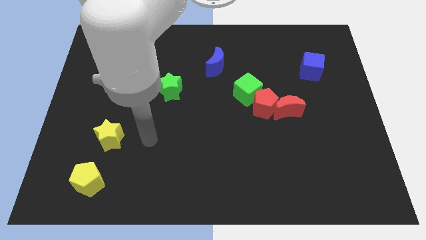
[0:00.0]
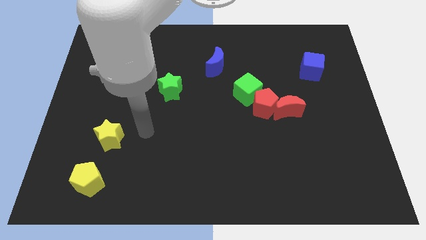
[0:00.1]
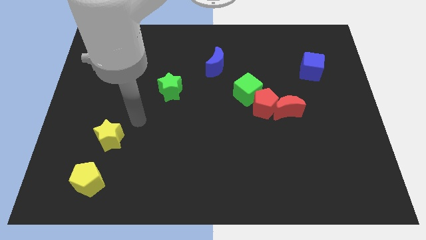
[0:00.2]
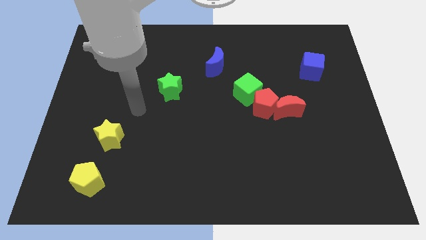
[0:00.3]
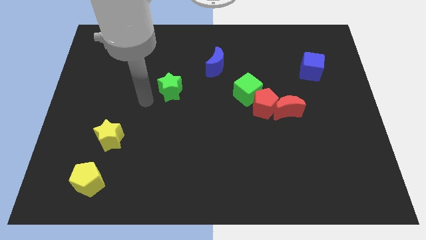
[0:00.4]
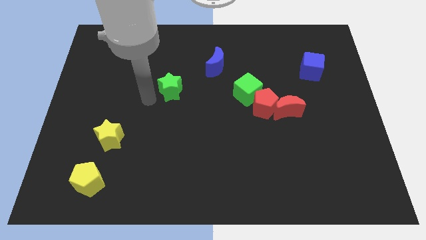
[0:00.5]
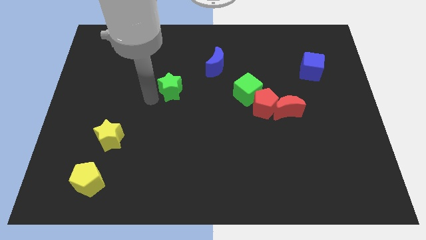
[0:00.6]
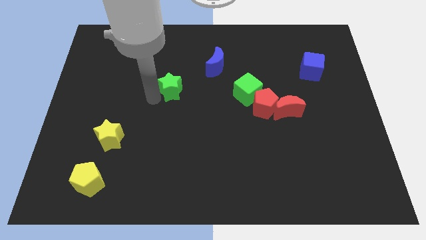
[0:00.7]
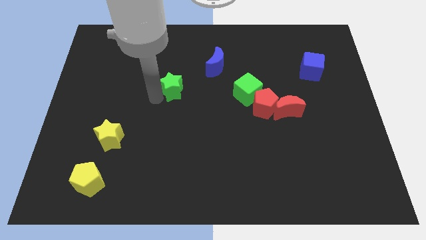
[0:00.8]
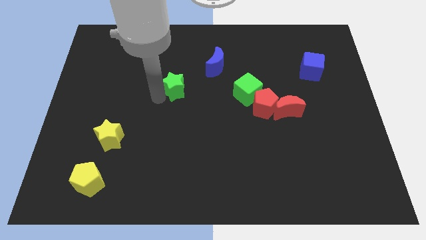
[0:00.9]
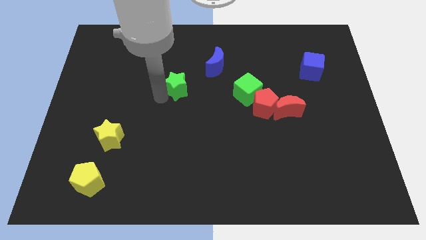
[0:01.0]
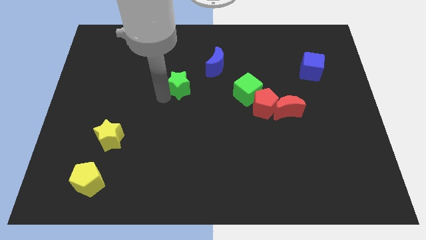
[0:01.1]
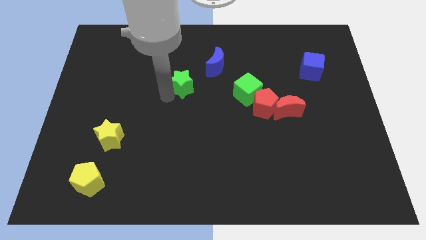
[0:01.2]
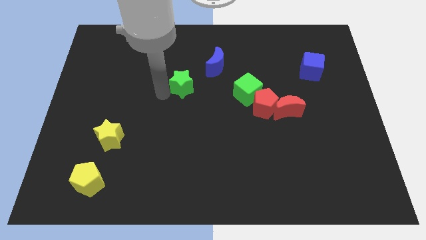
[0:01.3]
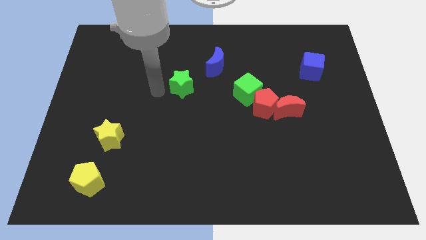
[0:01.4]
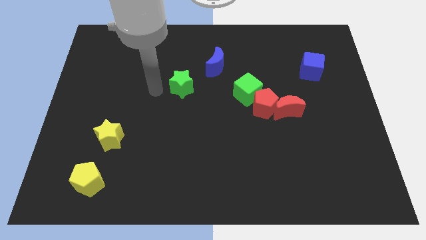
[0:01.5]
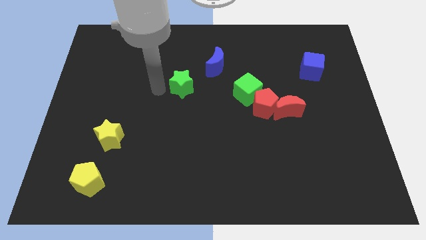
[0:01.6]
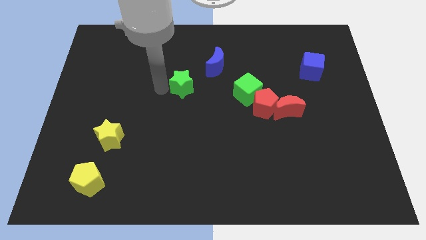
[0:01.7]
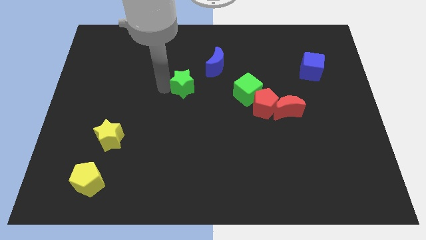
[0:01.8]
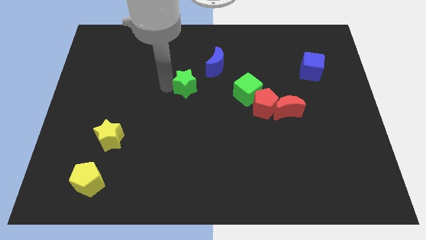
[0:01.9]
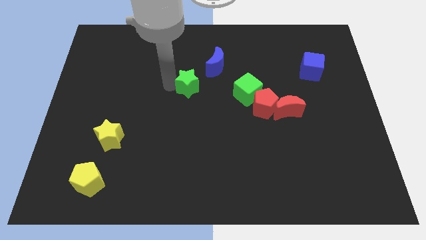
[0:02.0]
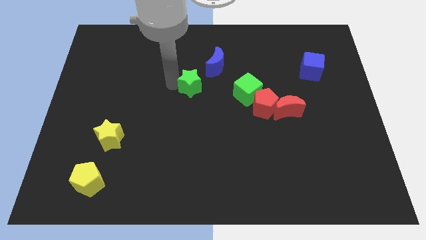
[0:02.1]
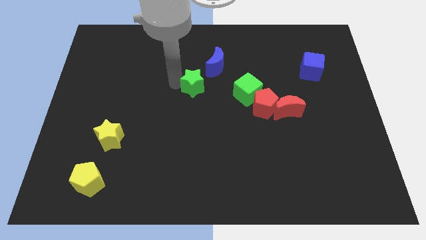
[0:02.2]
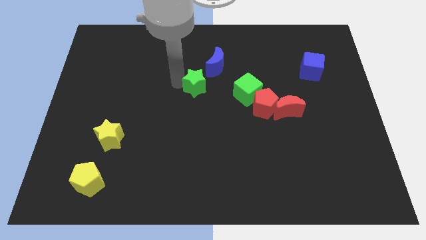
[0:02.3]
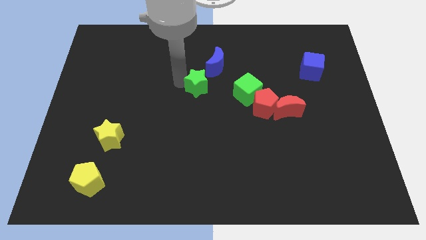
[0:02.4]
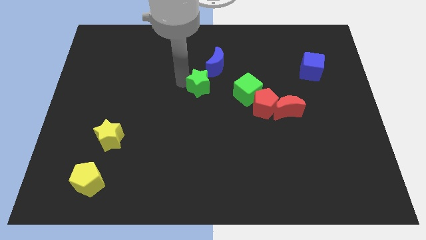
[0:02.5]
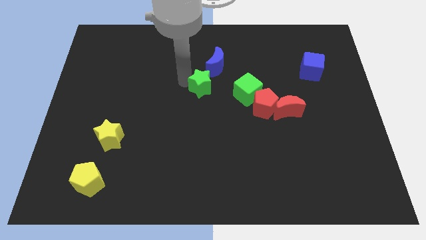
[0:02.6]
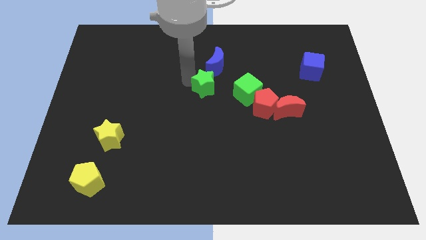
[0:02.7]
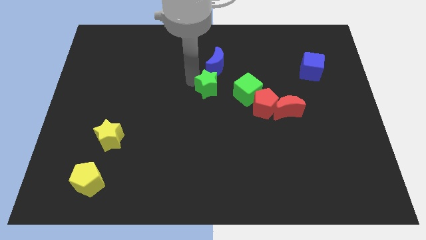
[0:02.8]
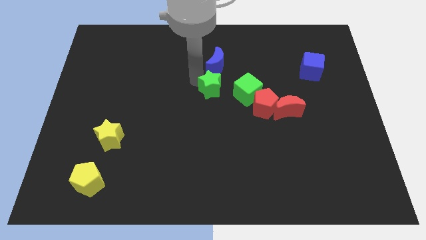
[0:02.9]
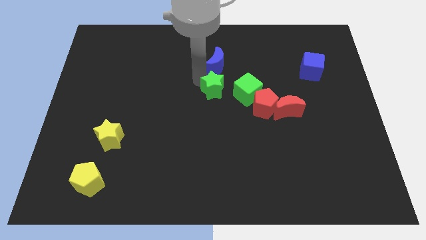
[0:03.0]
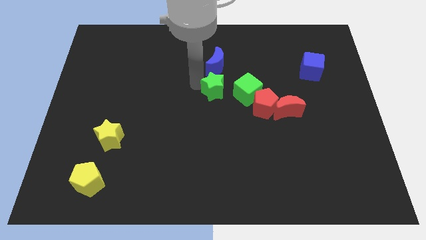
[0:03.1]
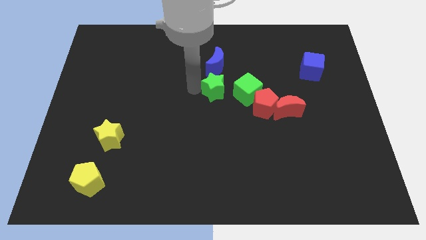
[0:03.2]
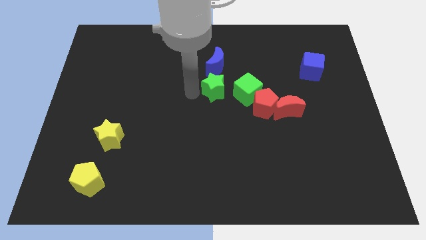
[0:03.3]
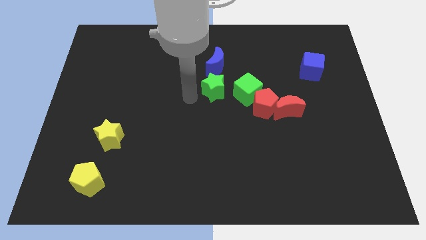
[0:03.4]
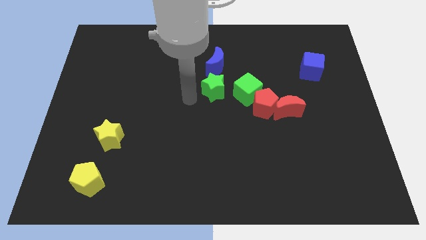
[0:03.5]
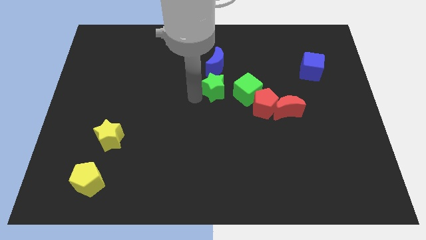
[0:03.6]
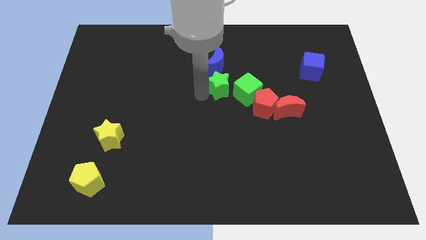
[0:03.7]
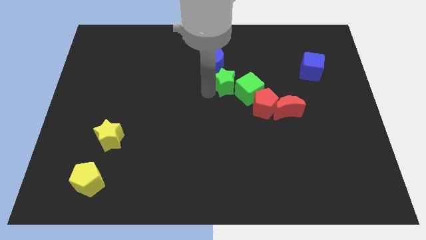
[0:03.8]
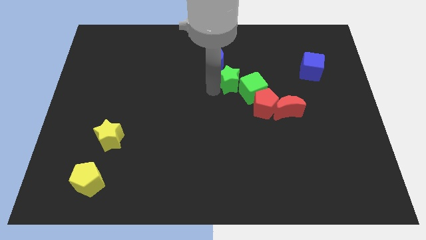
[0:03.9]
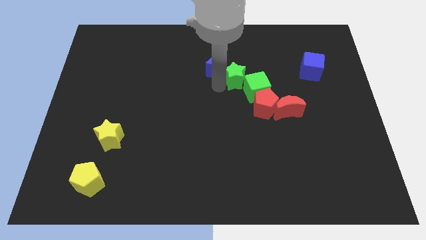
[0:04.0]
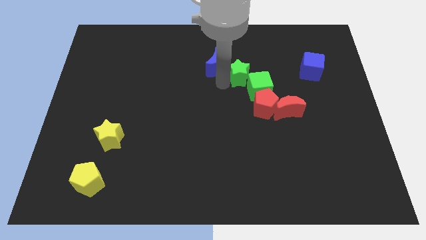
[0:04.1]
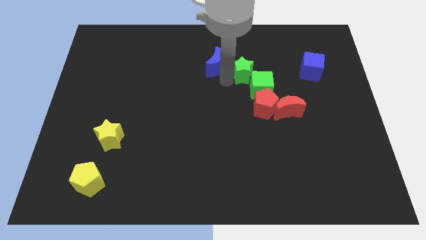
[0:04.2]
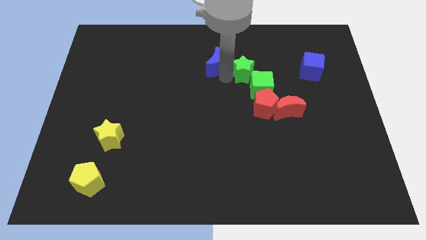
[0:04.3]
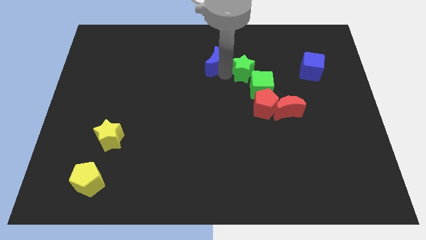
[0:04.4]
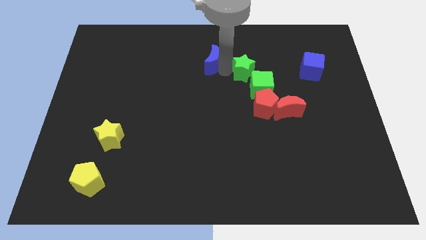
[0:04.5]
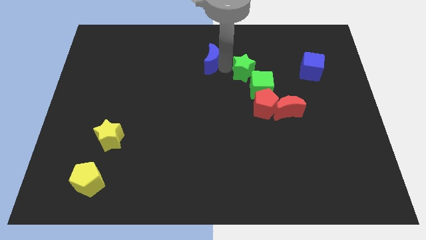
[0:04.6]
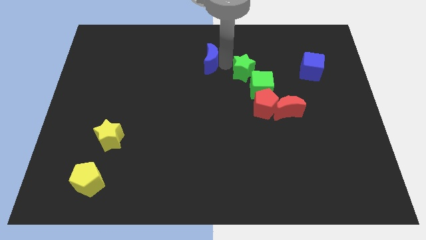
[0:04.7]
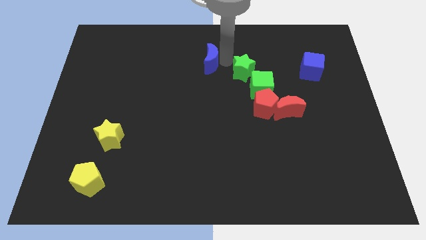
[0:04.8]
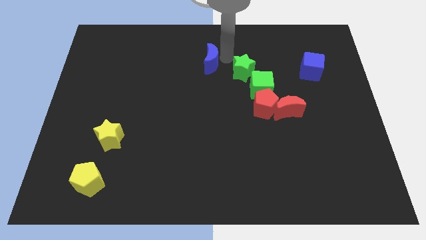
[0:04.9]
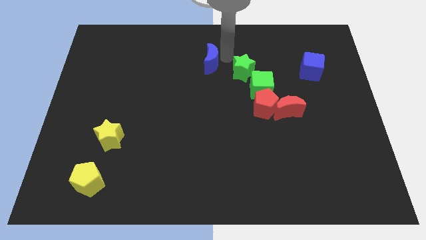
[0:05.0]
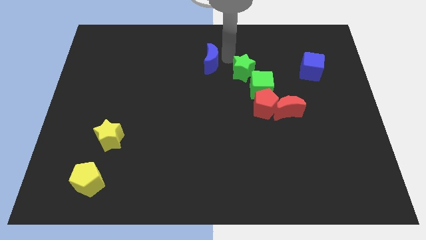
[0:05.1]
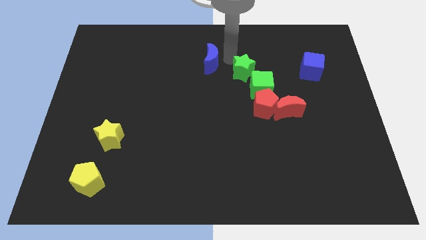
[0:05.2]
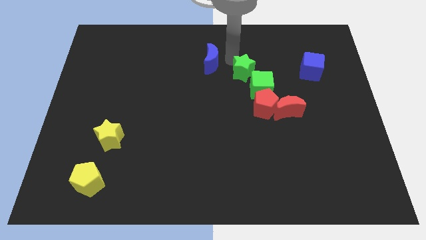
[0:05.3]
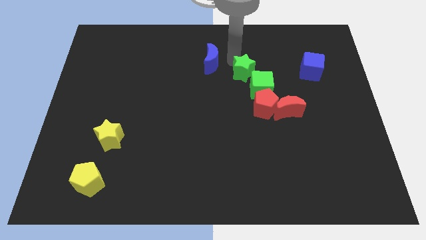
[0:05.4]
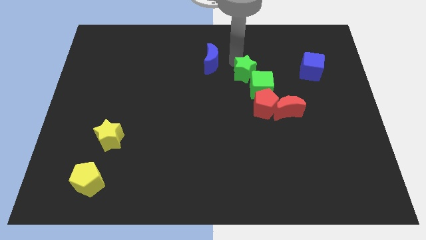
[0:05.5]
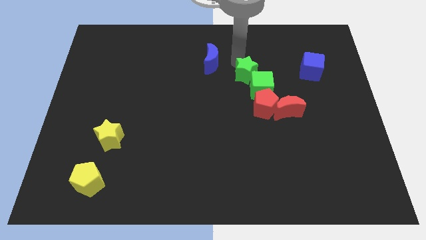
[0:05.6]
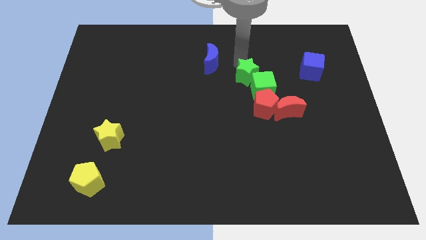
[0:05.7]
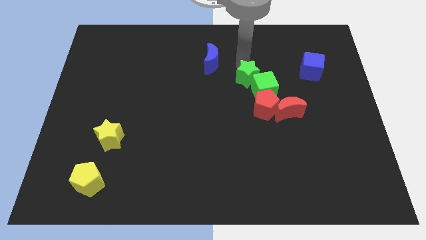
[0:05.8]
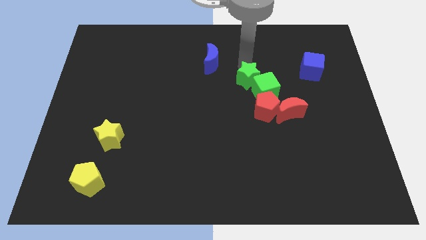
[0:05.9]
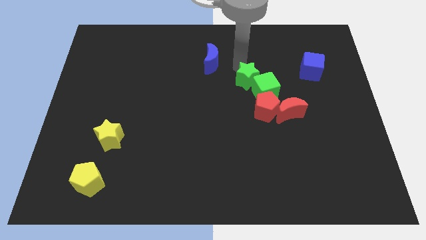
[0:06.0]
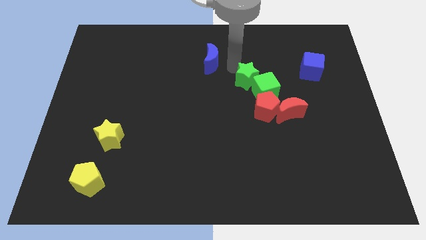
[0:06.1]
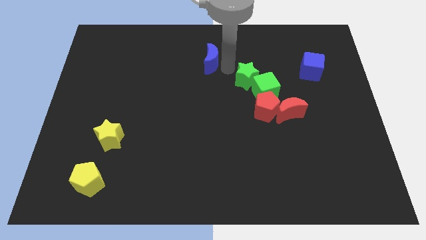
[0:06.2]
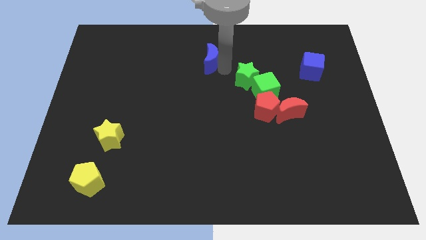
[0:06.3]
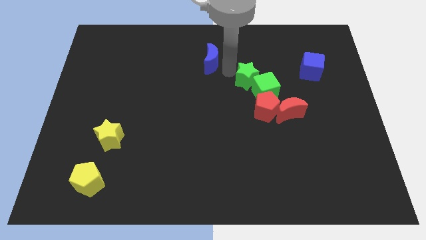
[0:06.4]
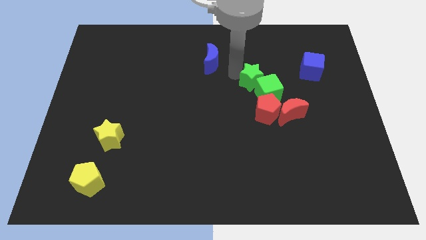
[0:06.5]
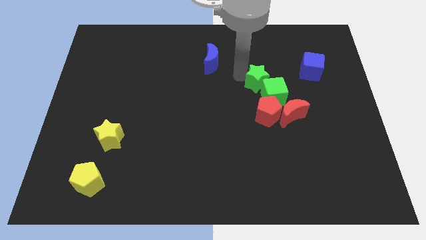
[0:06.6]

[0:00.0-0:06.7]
move the green star right

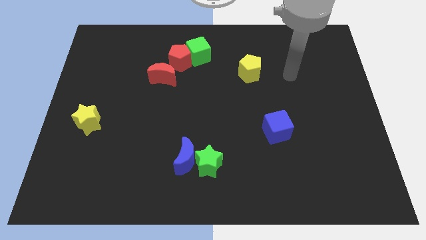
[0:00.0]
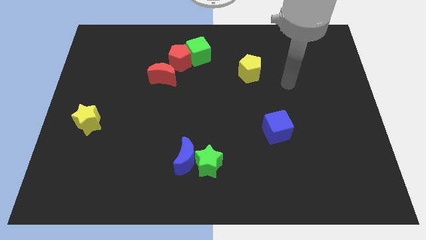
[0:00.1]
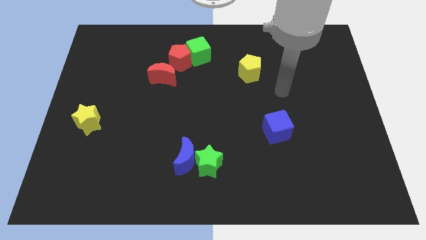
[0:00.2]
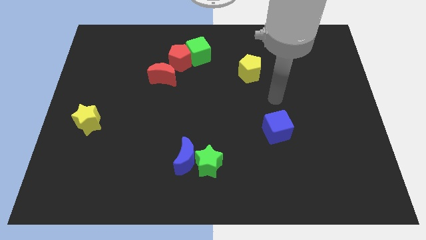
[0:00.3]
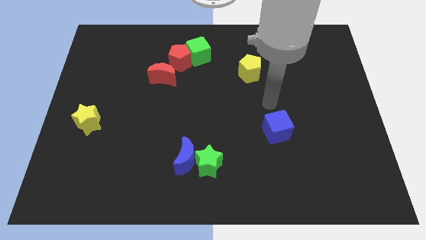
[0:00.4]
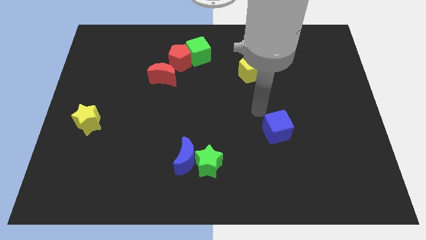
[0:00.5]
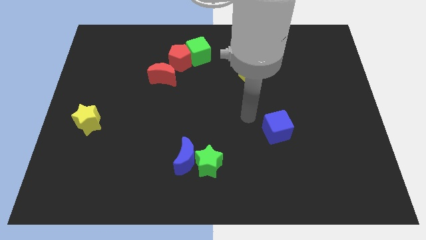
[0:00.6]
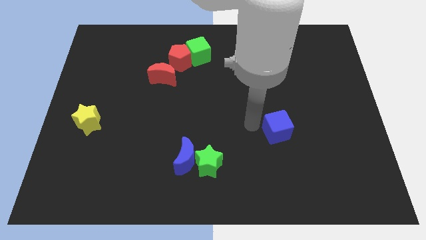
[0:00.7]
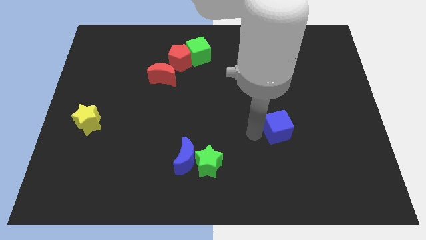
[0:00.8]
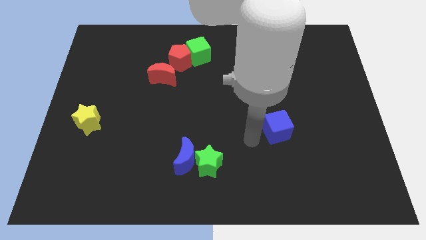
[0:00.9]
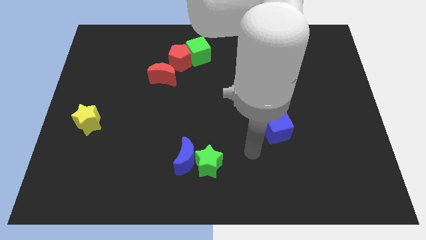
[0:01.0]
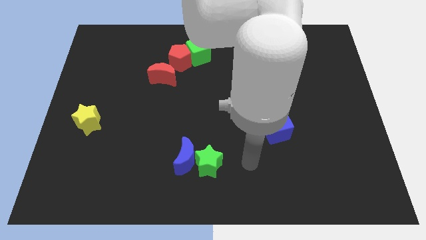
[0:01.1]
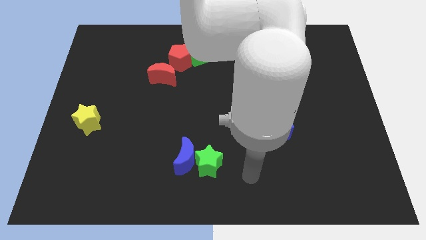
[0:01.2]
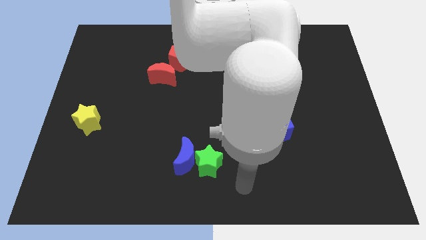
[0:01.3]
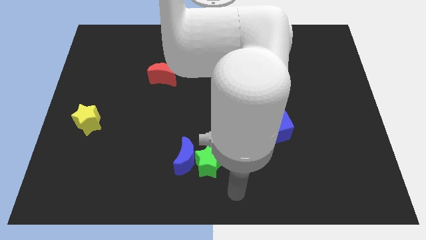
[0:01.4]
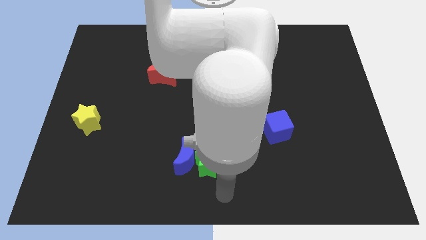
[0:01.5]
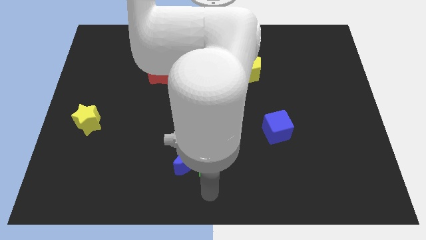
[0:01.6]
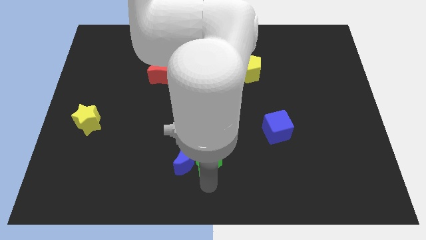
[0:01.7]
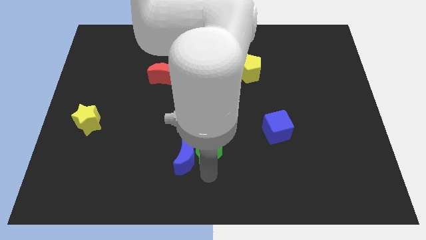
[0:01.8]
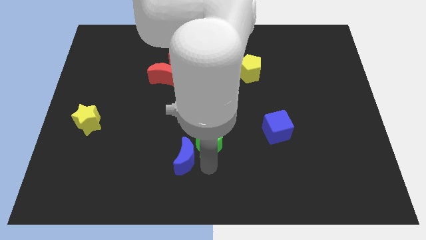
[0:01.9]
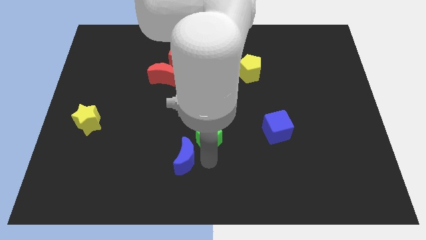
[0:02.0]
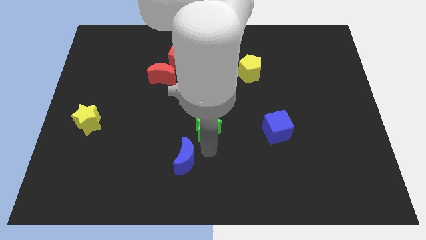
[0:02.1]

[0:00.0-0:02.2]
slightly slide the green star upwards
